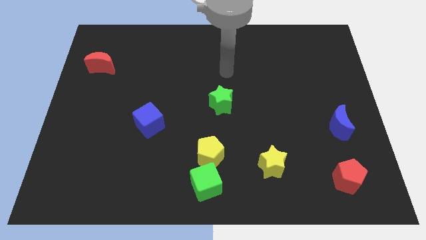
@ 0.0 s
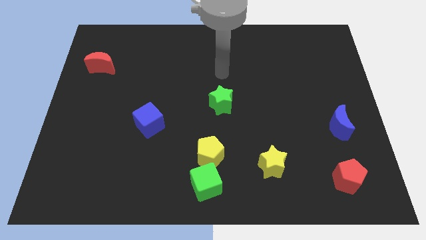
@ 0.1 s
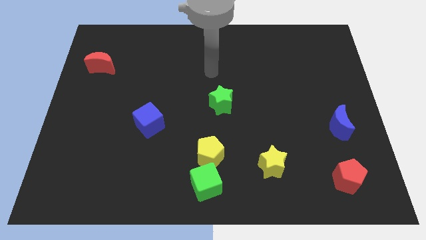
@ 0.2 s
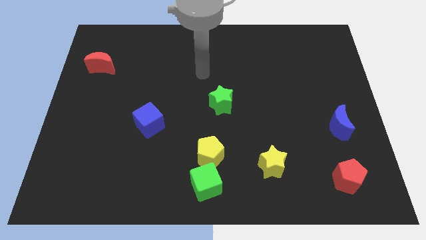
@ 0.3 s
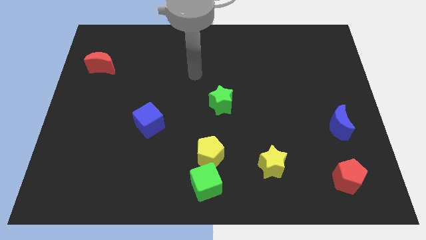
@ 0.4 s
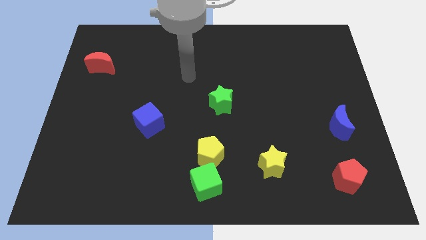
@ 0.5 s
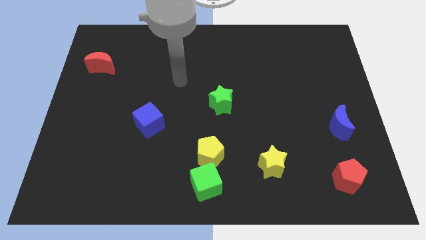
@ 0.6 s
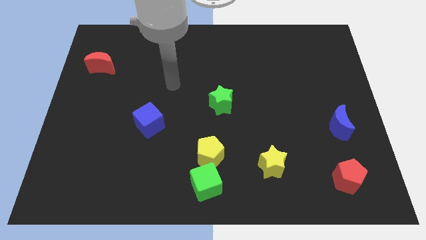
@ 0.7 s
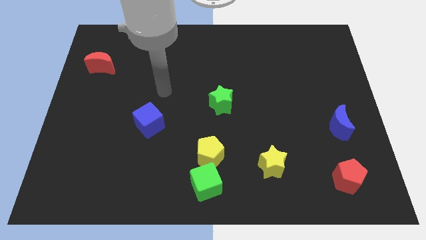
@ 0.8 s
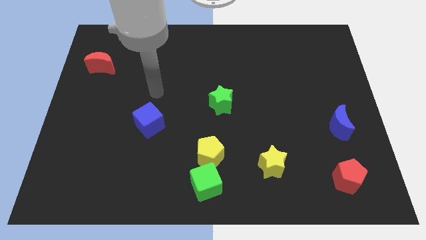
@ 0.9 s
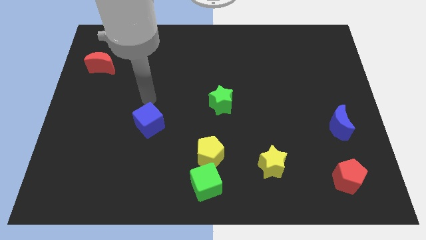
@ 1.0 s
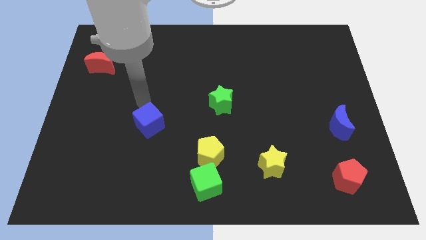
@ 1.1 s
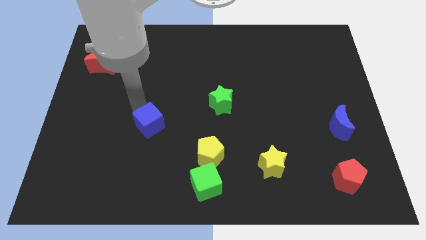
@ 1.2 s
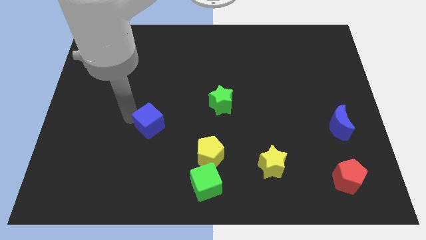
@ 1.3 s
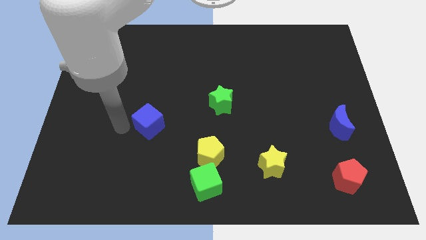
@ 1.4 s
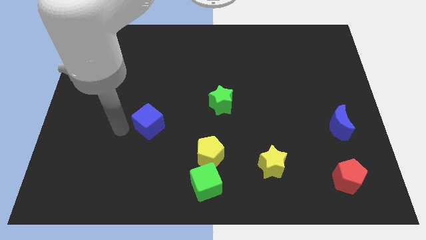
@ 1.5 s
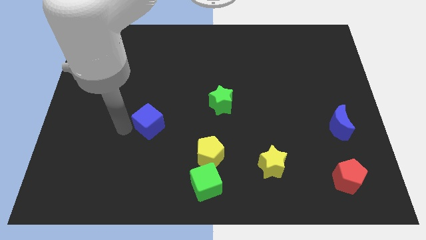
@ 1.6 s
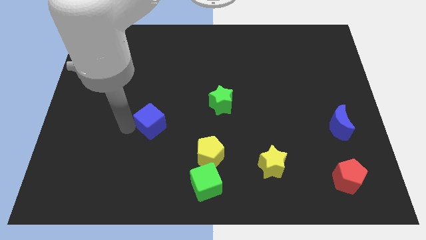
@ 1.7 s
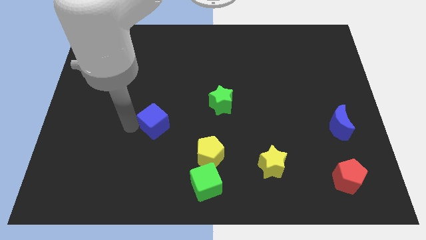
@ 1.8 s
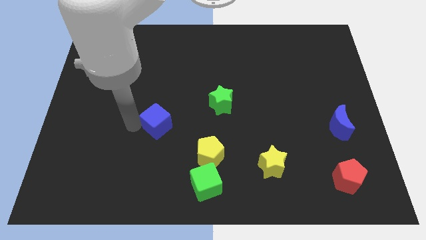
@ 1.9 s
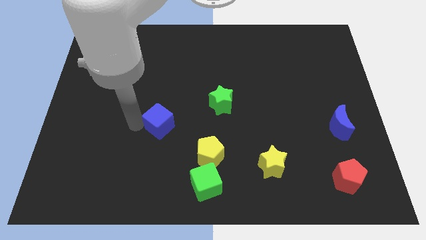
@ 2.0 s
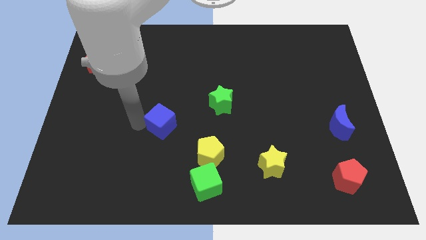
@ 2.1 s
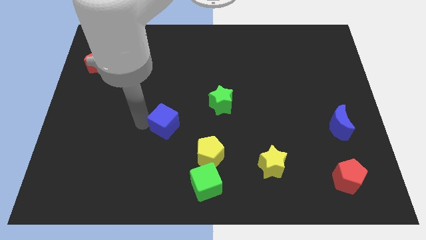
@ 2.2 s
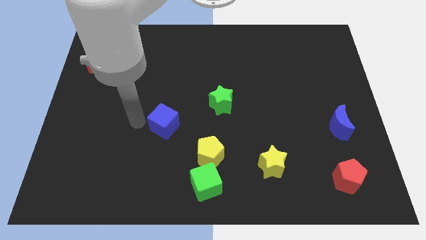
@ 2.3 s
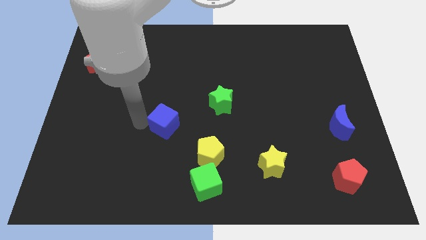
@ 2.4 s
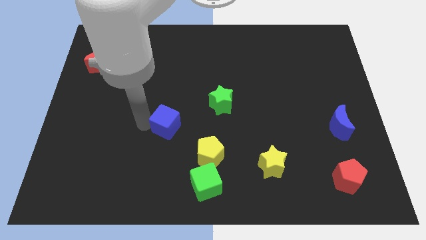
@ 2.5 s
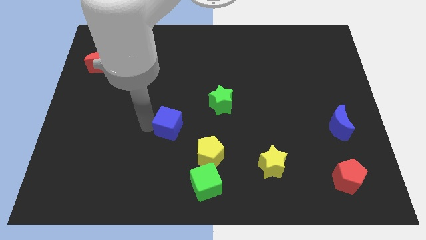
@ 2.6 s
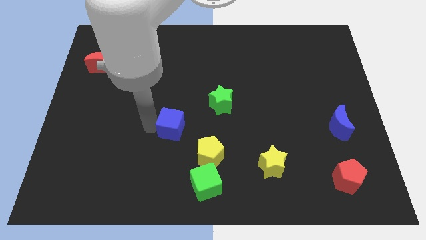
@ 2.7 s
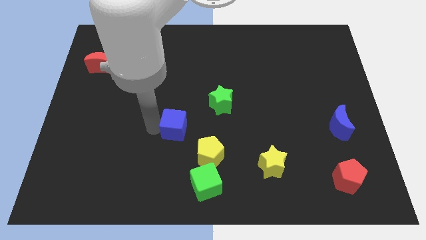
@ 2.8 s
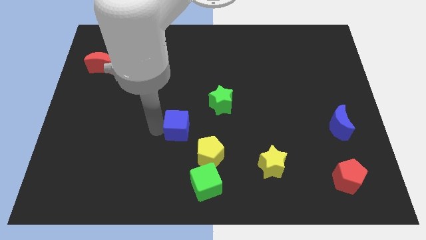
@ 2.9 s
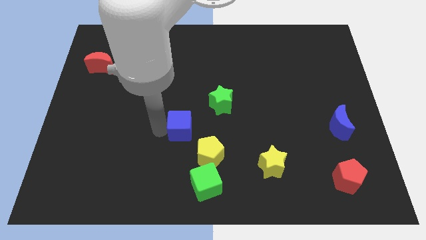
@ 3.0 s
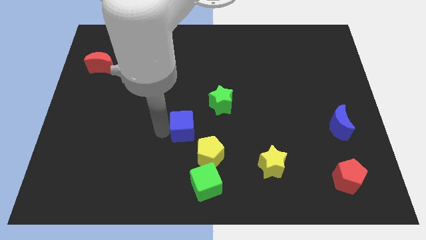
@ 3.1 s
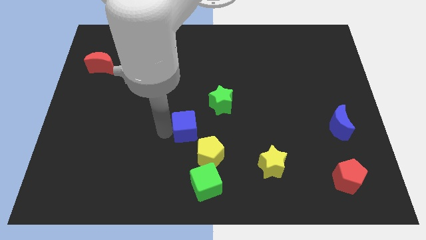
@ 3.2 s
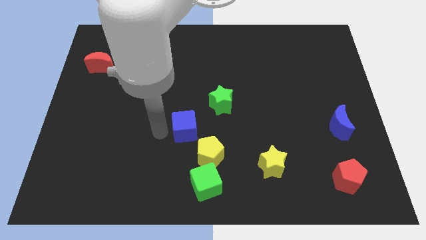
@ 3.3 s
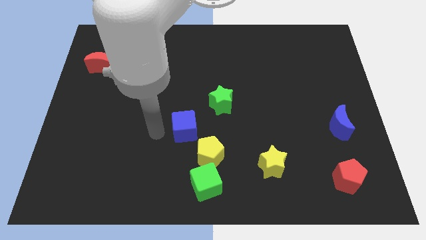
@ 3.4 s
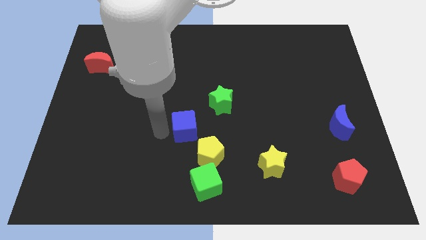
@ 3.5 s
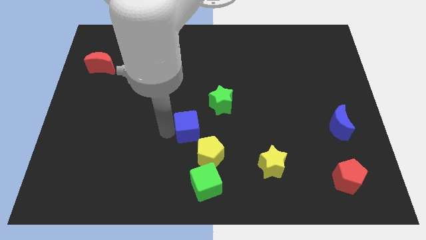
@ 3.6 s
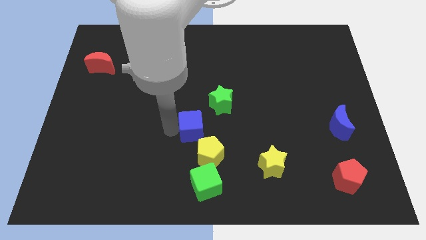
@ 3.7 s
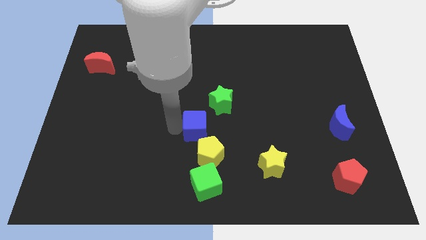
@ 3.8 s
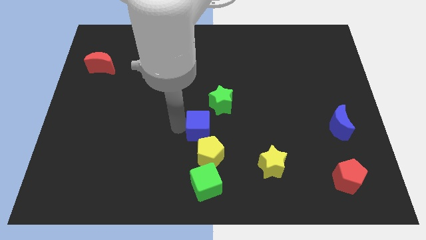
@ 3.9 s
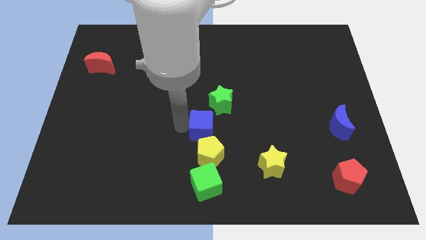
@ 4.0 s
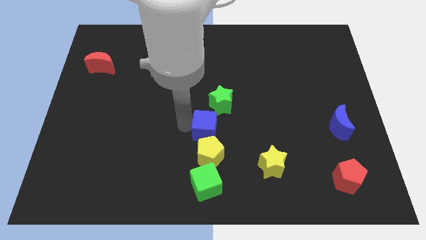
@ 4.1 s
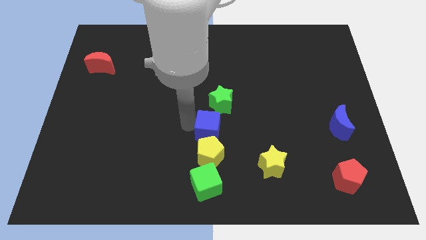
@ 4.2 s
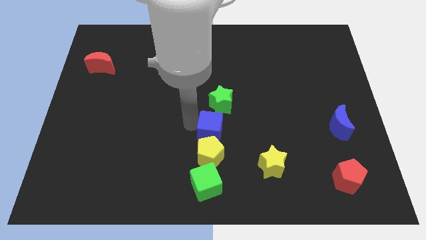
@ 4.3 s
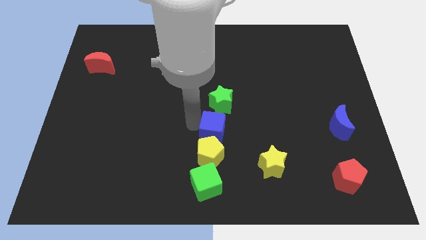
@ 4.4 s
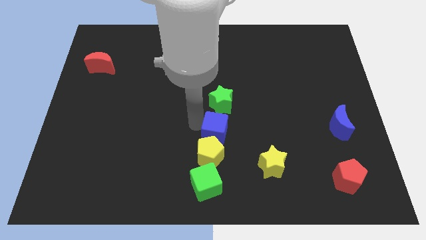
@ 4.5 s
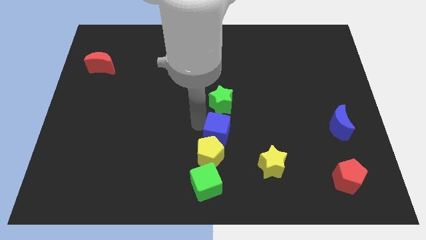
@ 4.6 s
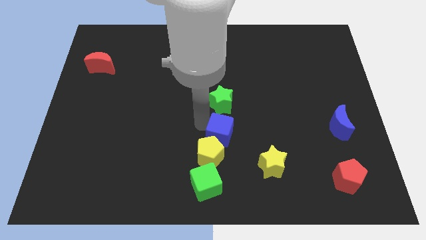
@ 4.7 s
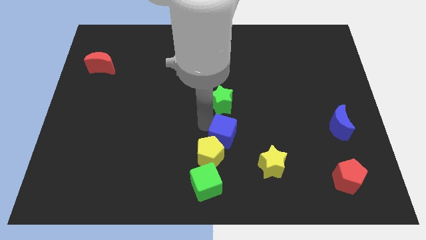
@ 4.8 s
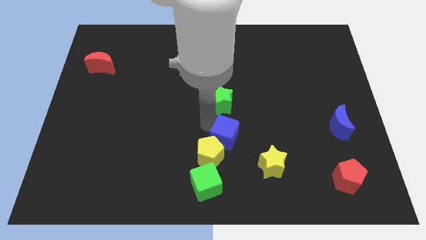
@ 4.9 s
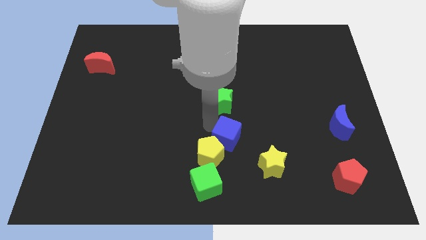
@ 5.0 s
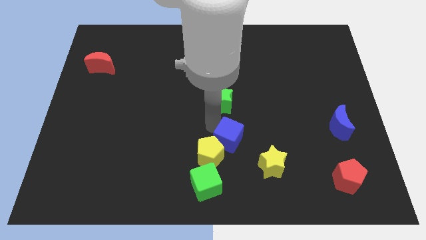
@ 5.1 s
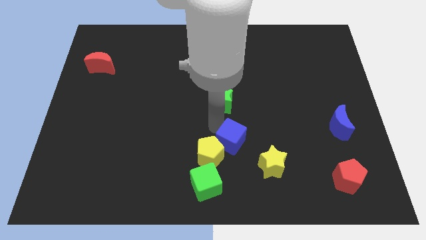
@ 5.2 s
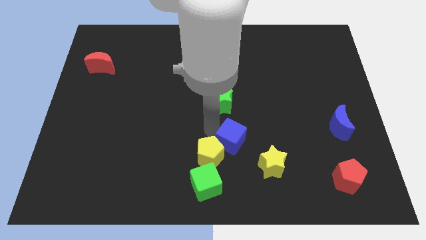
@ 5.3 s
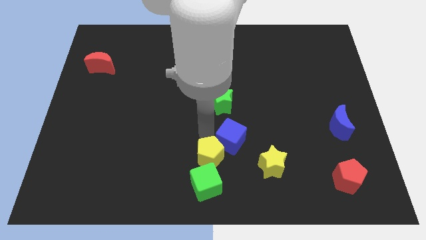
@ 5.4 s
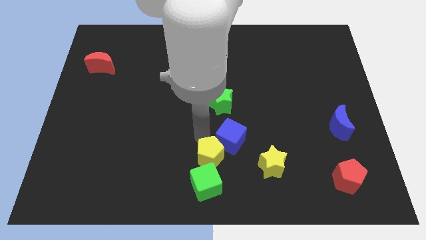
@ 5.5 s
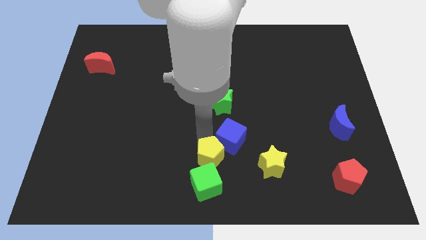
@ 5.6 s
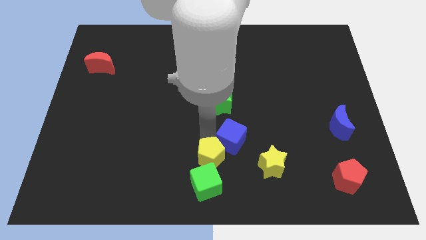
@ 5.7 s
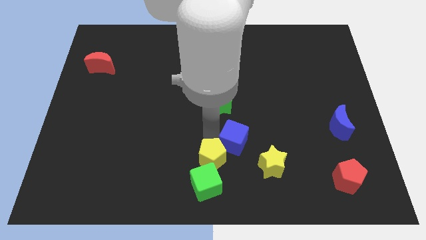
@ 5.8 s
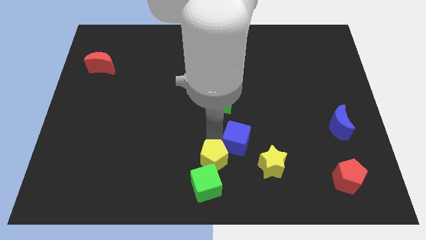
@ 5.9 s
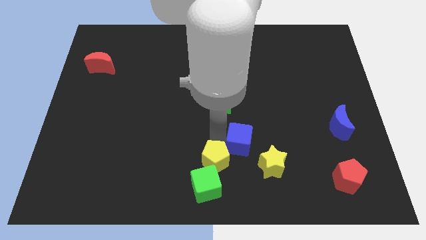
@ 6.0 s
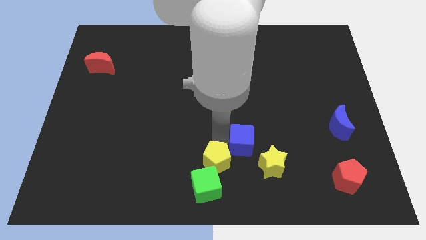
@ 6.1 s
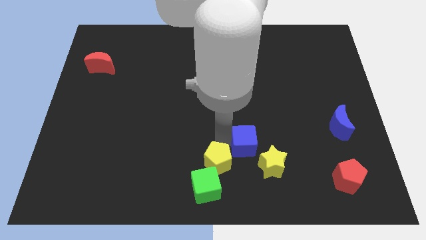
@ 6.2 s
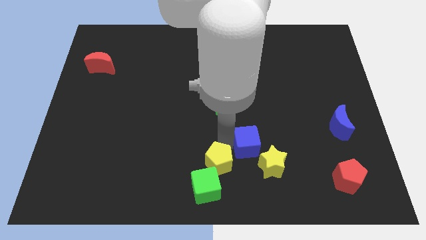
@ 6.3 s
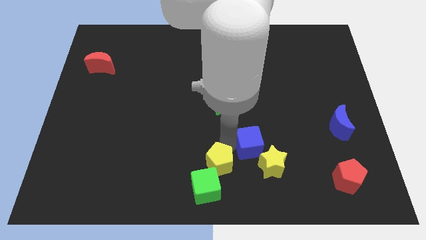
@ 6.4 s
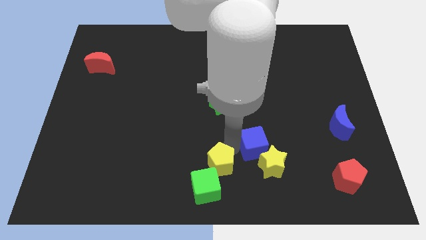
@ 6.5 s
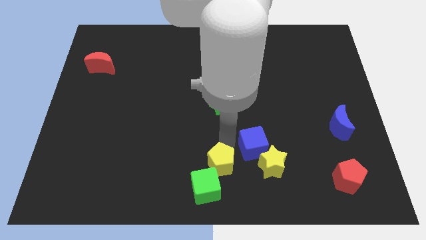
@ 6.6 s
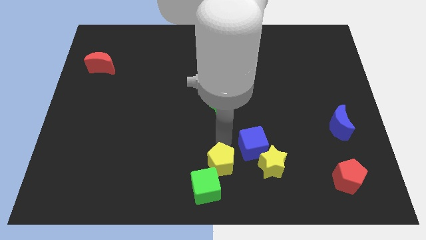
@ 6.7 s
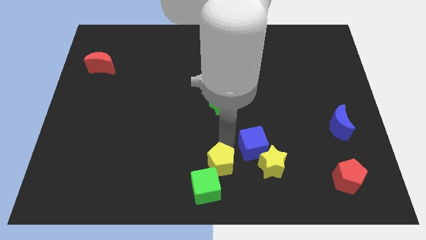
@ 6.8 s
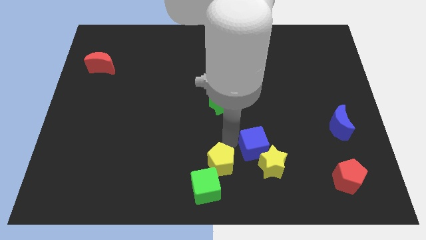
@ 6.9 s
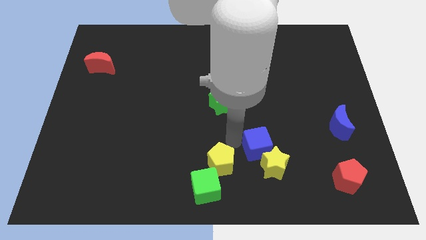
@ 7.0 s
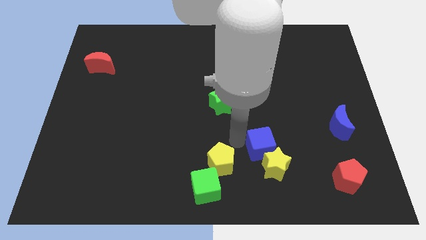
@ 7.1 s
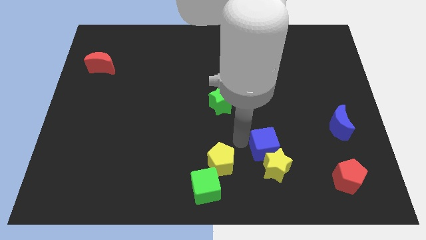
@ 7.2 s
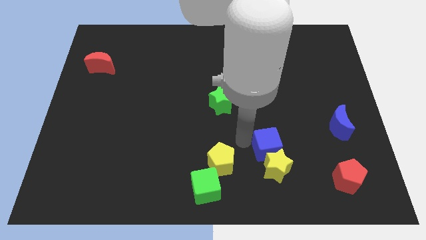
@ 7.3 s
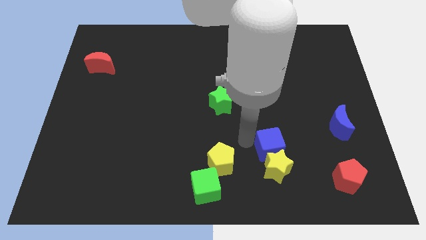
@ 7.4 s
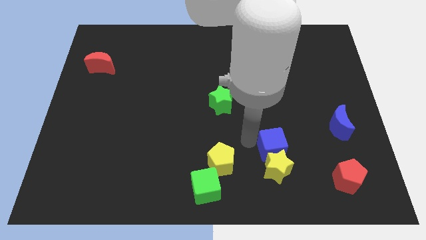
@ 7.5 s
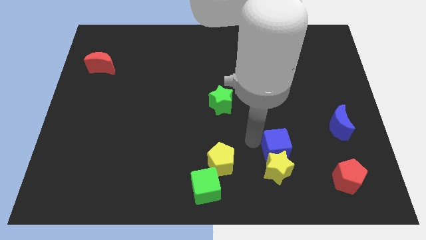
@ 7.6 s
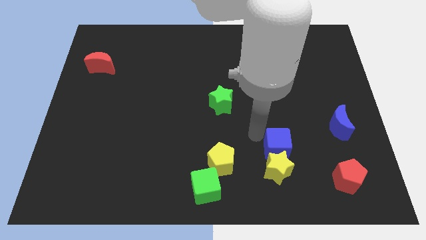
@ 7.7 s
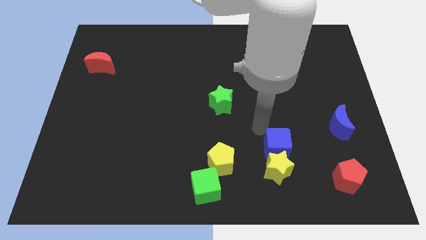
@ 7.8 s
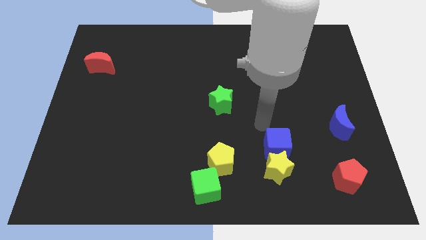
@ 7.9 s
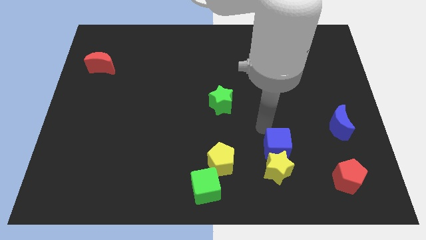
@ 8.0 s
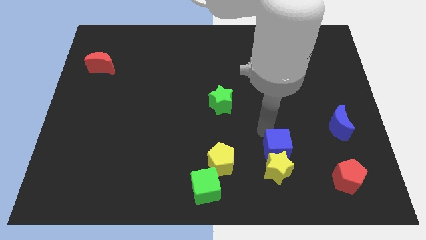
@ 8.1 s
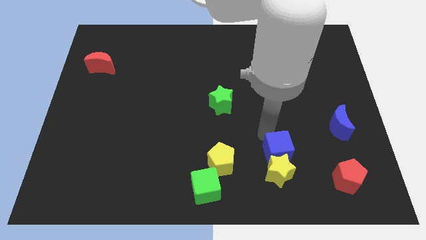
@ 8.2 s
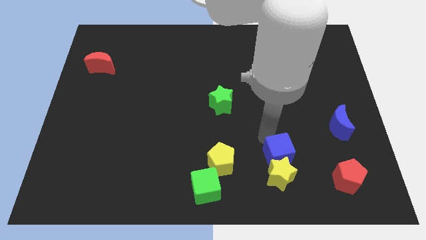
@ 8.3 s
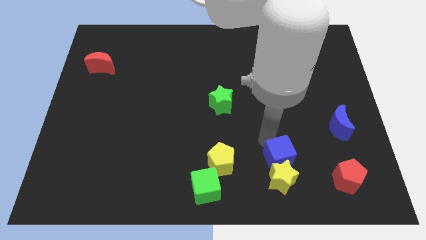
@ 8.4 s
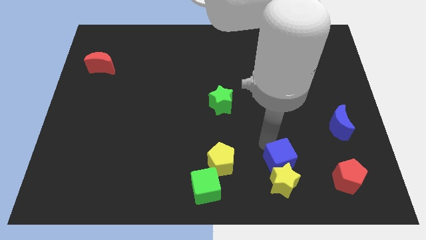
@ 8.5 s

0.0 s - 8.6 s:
move the blue cube left of the red pentagon
